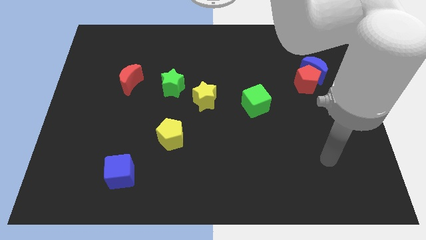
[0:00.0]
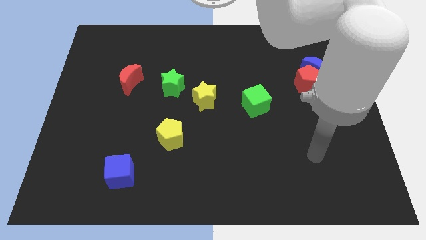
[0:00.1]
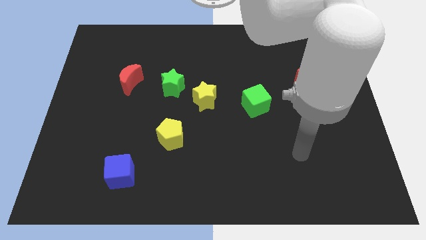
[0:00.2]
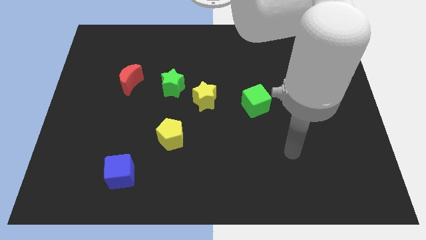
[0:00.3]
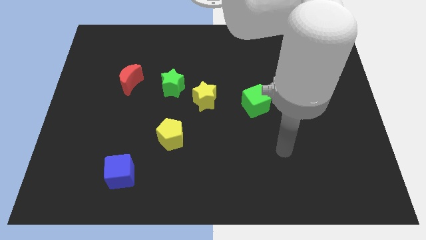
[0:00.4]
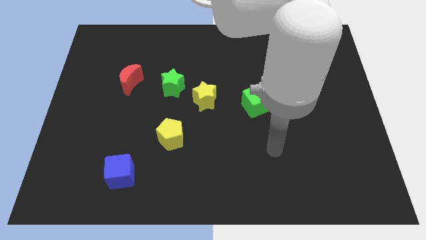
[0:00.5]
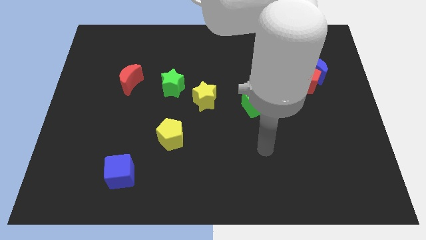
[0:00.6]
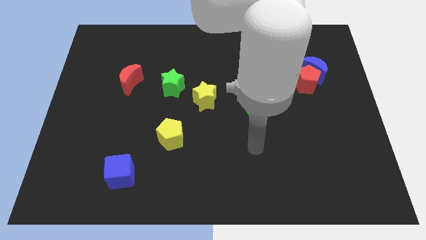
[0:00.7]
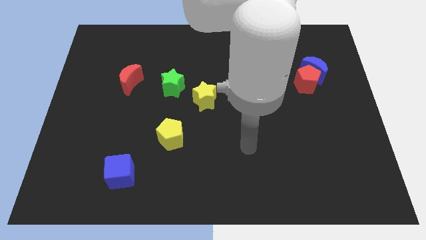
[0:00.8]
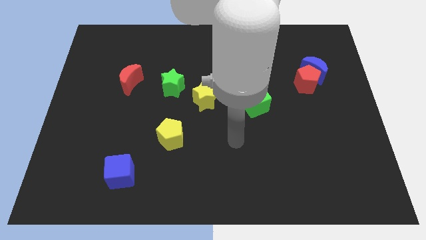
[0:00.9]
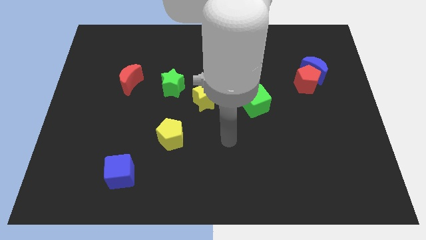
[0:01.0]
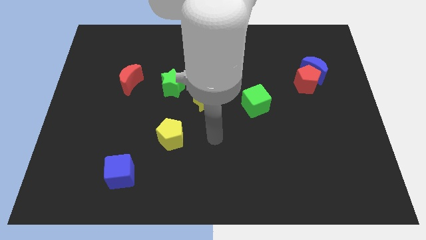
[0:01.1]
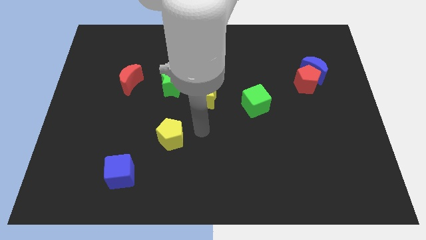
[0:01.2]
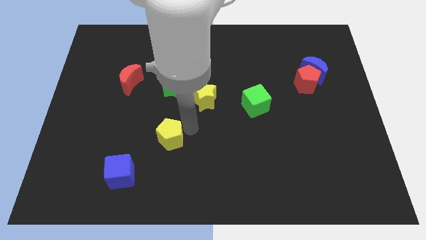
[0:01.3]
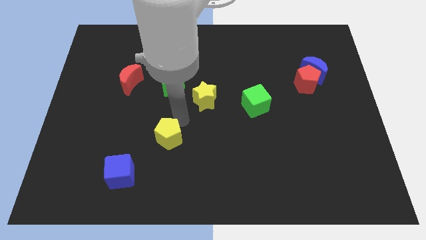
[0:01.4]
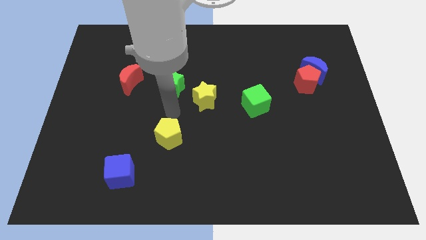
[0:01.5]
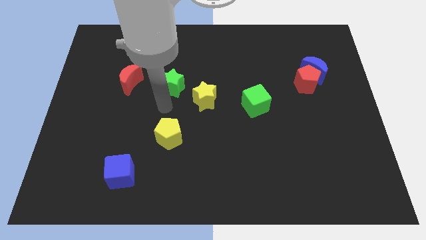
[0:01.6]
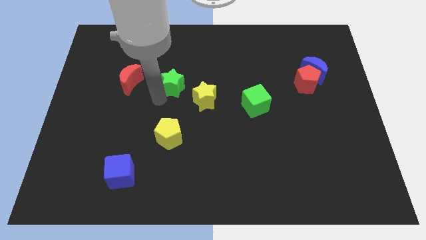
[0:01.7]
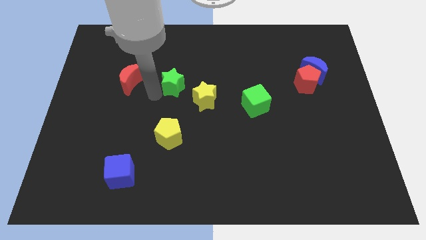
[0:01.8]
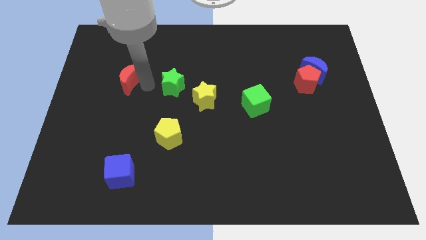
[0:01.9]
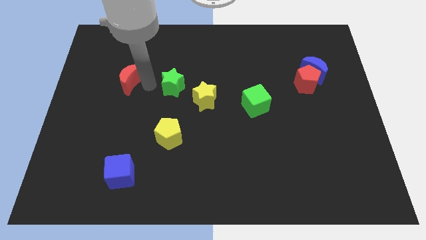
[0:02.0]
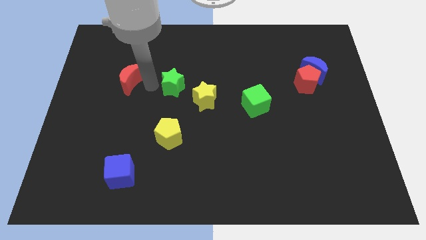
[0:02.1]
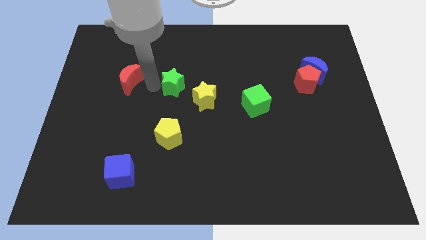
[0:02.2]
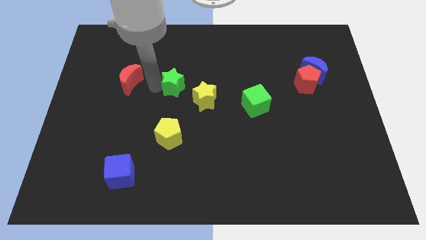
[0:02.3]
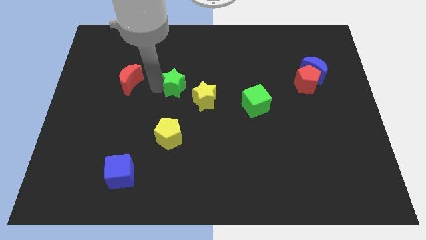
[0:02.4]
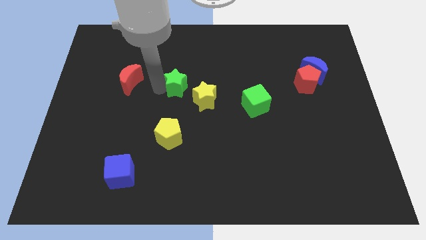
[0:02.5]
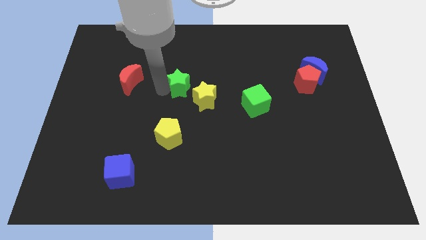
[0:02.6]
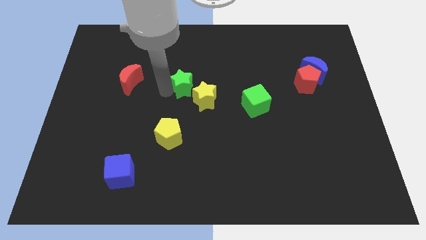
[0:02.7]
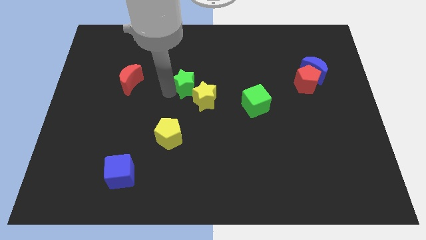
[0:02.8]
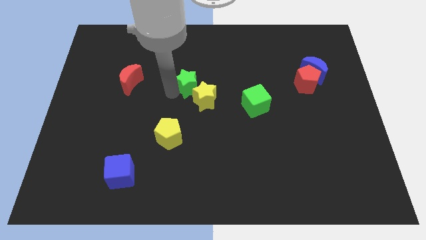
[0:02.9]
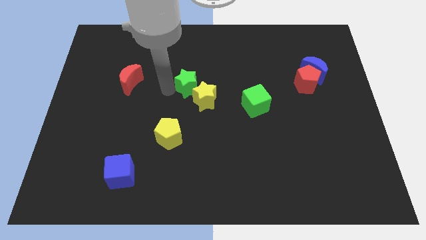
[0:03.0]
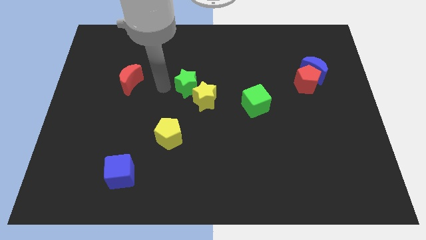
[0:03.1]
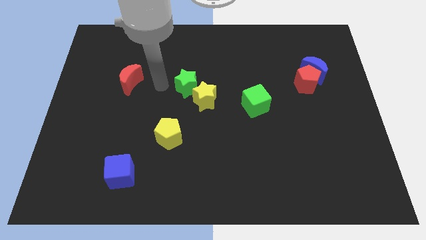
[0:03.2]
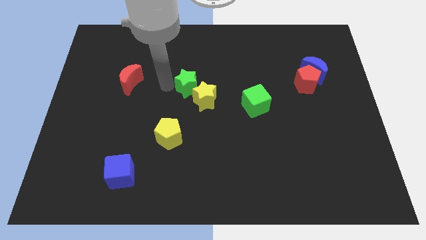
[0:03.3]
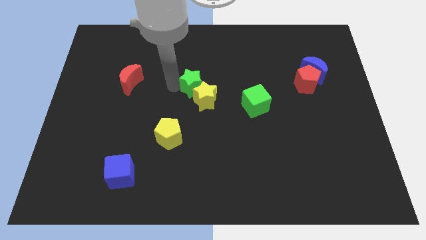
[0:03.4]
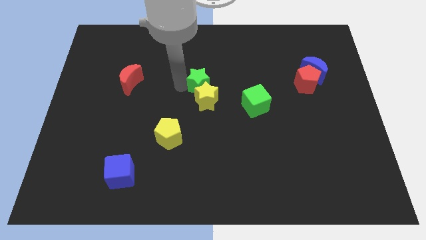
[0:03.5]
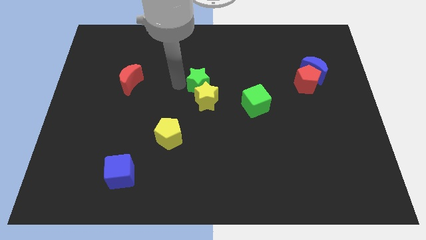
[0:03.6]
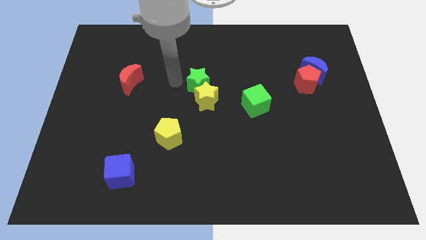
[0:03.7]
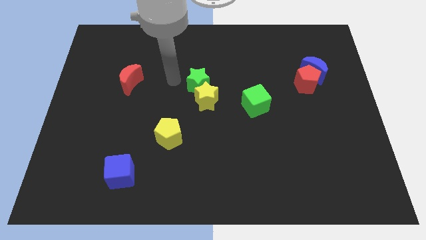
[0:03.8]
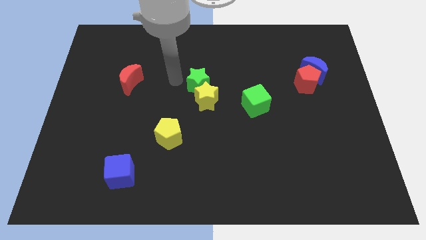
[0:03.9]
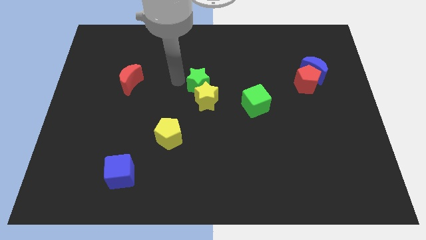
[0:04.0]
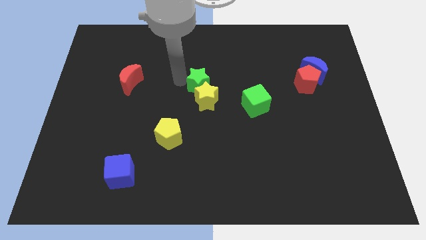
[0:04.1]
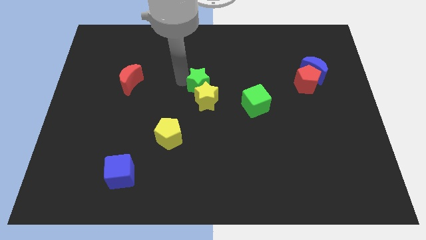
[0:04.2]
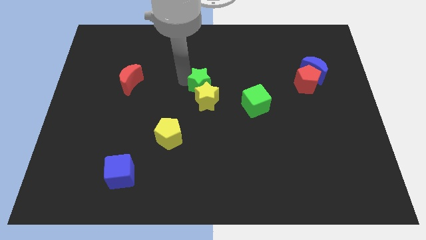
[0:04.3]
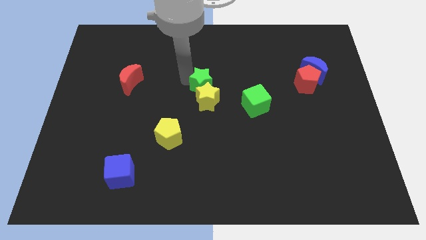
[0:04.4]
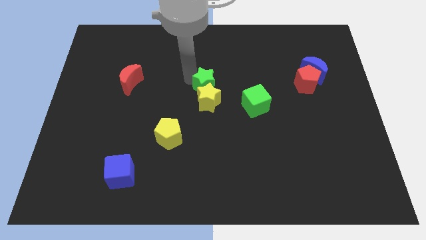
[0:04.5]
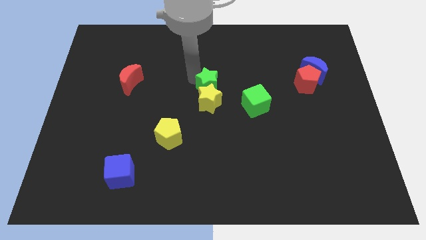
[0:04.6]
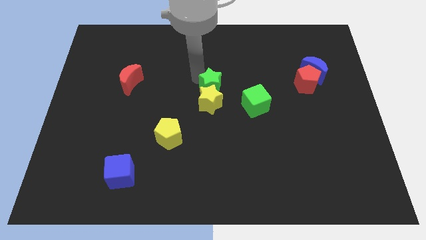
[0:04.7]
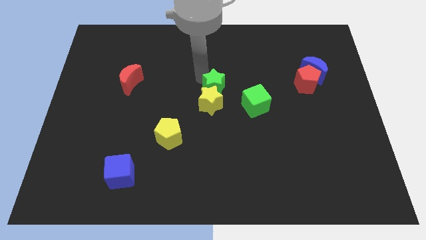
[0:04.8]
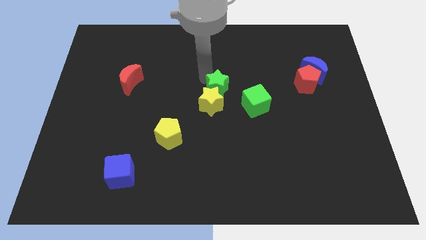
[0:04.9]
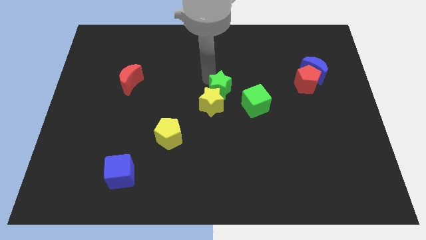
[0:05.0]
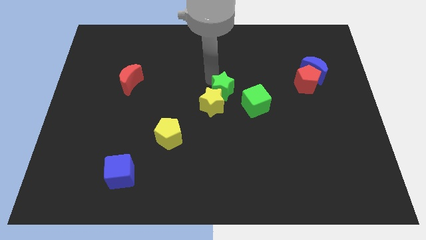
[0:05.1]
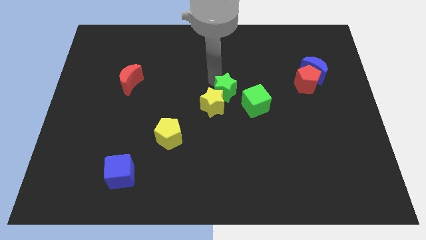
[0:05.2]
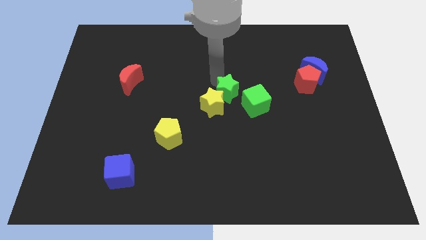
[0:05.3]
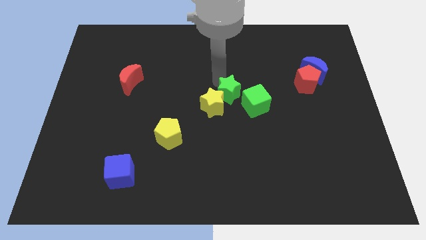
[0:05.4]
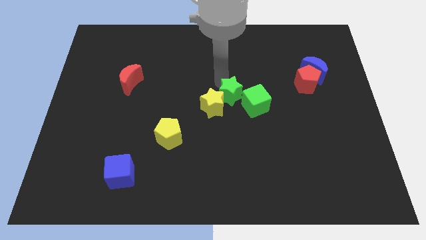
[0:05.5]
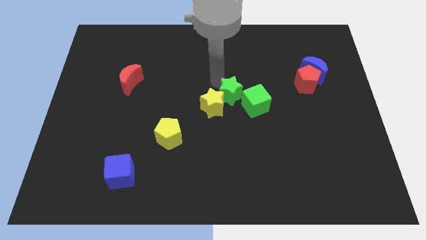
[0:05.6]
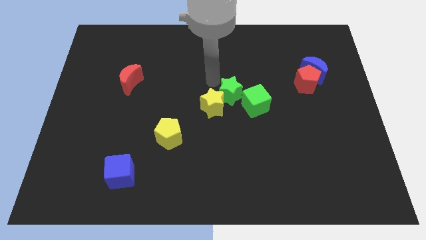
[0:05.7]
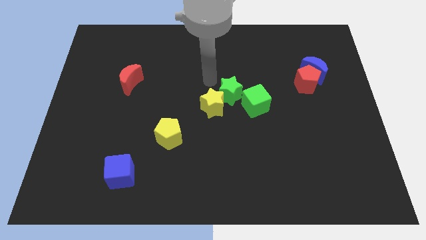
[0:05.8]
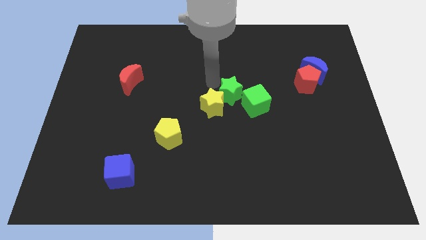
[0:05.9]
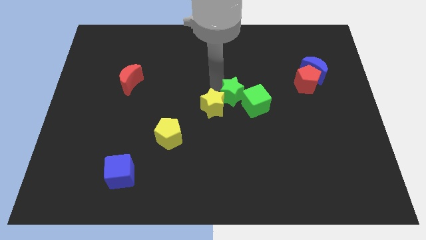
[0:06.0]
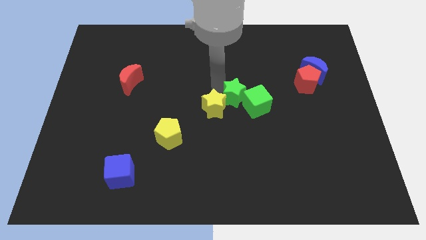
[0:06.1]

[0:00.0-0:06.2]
put the green star close to the green cube

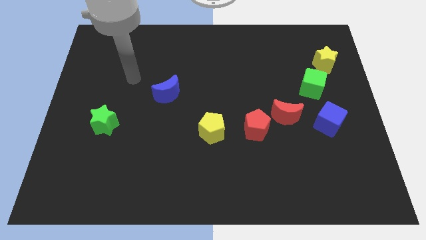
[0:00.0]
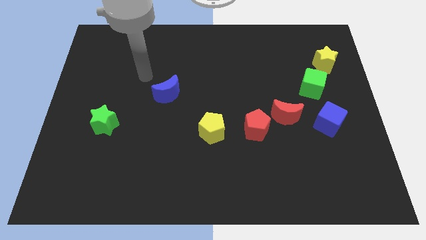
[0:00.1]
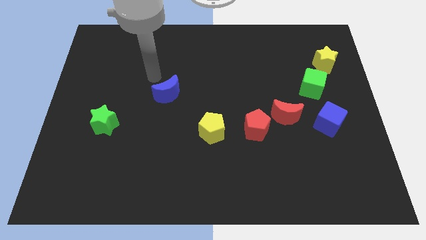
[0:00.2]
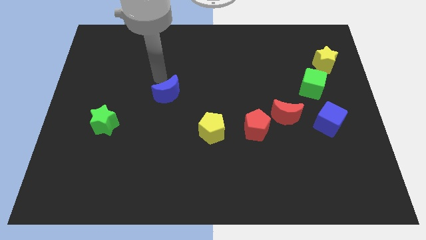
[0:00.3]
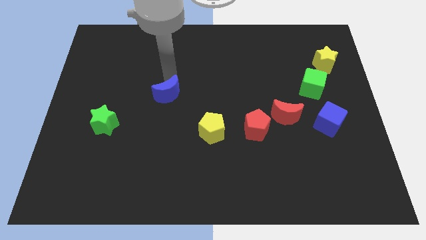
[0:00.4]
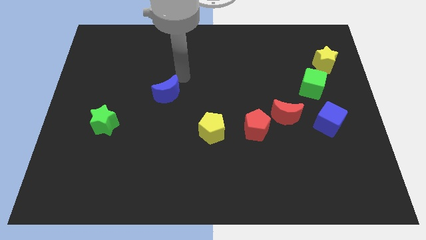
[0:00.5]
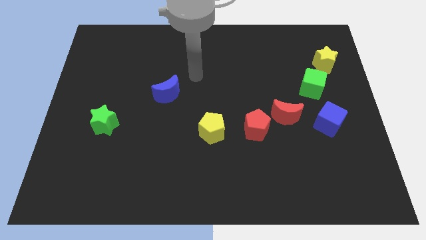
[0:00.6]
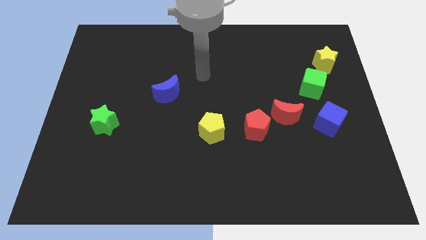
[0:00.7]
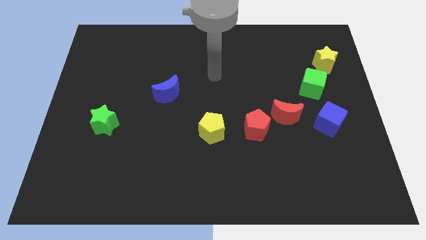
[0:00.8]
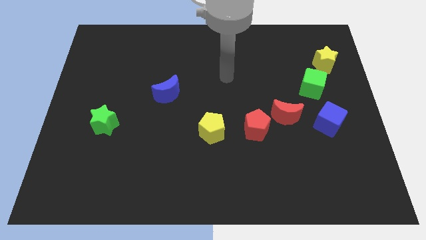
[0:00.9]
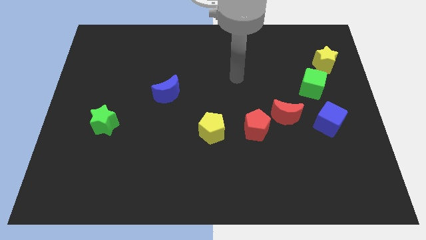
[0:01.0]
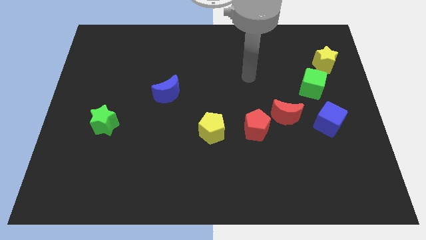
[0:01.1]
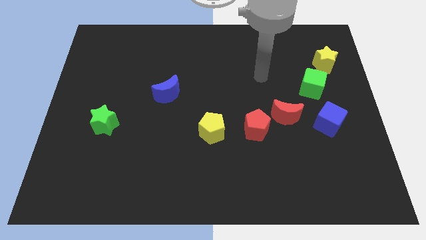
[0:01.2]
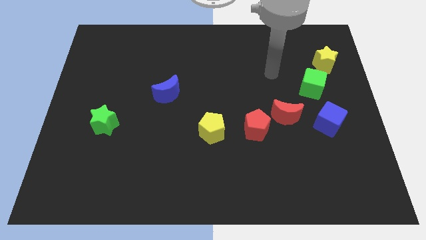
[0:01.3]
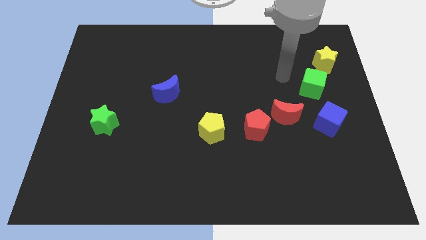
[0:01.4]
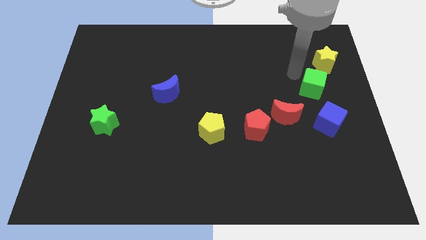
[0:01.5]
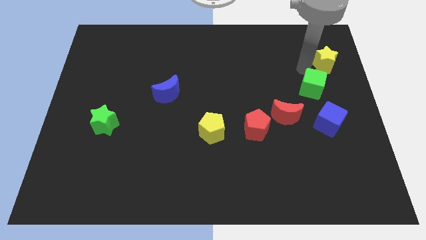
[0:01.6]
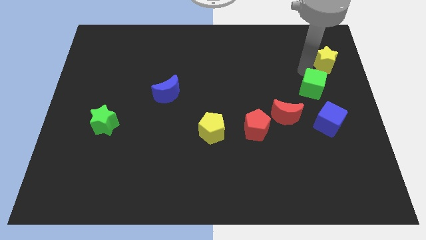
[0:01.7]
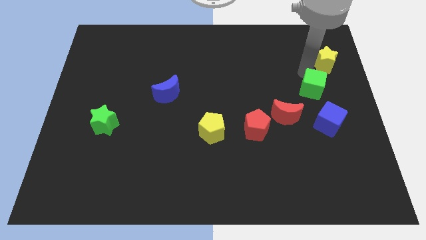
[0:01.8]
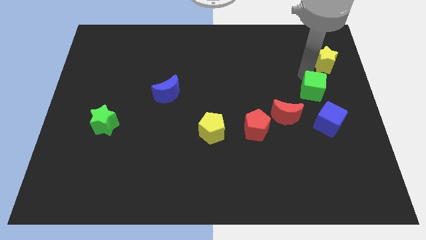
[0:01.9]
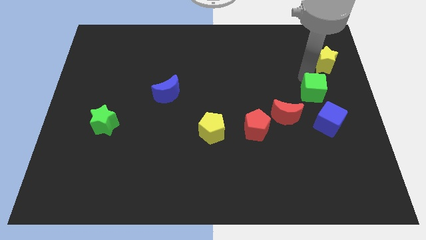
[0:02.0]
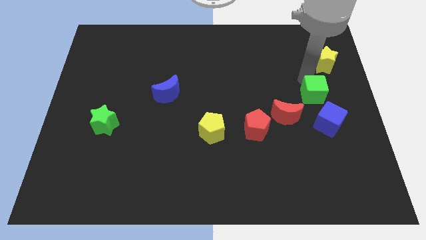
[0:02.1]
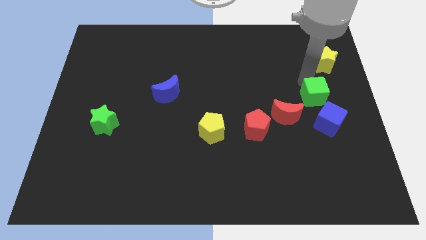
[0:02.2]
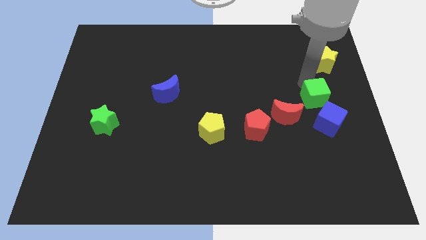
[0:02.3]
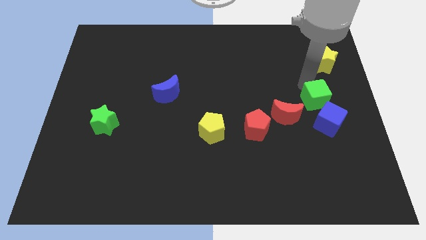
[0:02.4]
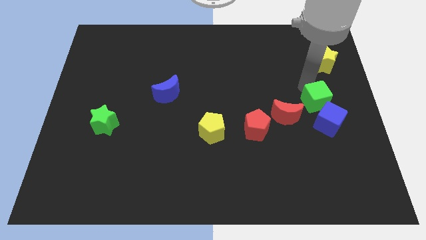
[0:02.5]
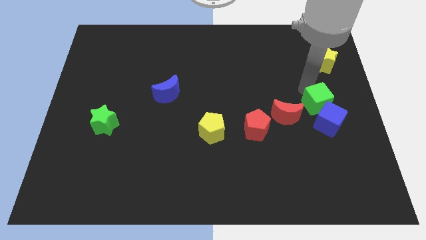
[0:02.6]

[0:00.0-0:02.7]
slide the green cube close to the blue cube
